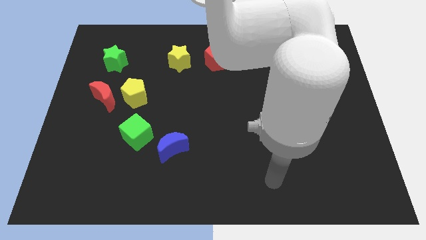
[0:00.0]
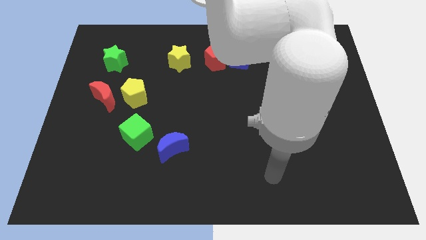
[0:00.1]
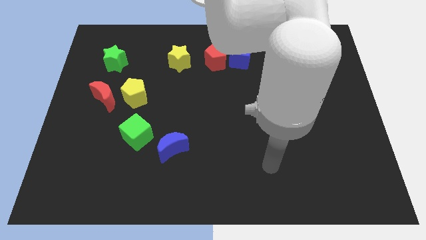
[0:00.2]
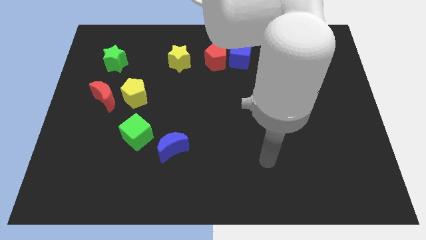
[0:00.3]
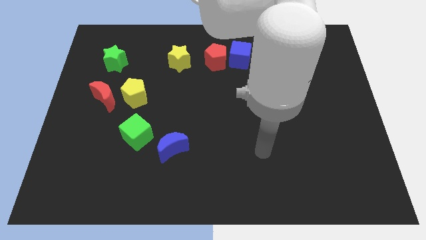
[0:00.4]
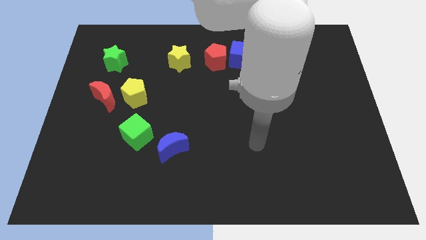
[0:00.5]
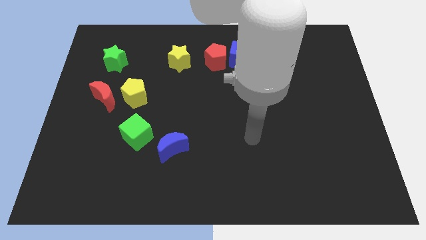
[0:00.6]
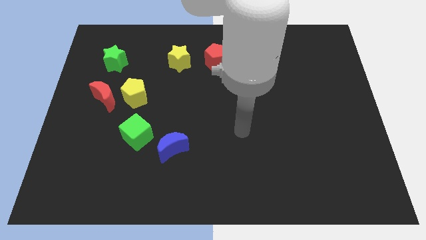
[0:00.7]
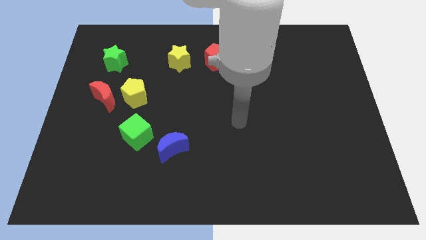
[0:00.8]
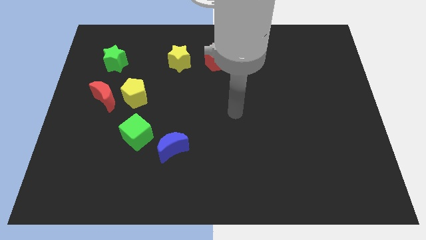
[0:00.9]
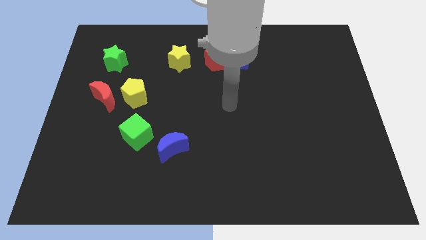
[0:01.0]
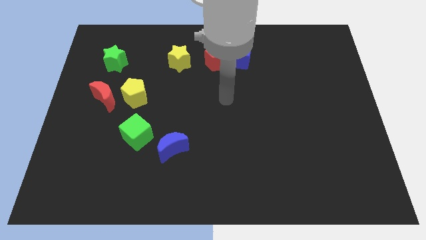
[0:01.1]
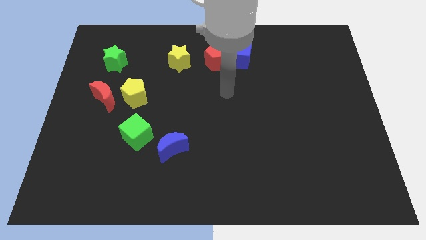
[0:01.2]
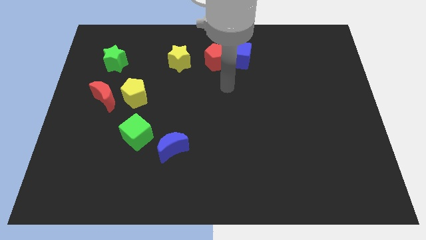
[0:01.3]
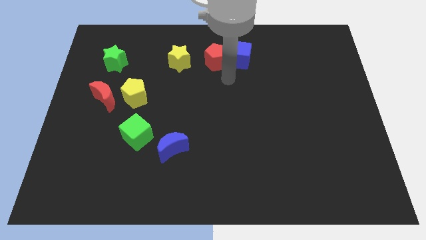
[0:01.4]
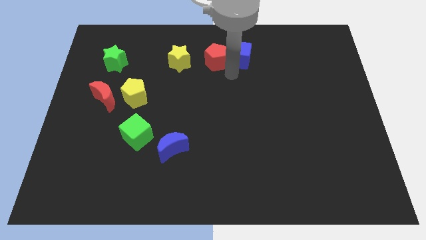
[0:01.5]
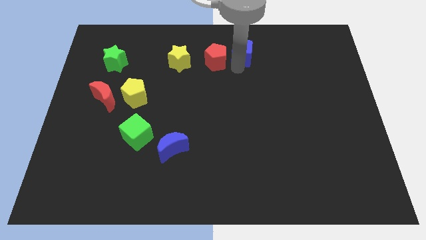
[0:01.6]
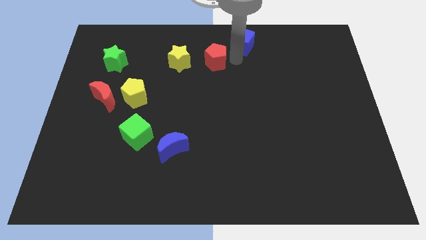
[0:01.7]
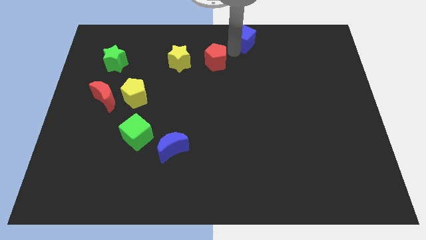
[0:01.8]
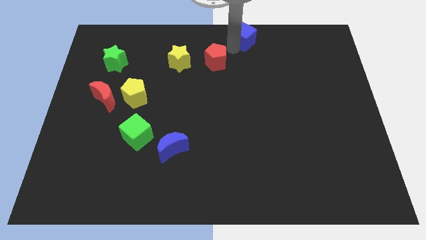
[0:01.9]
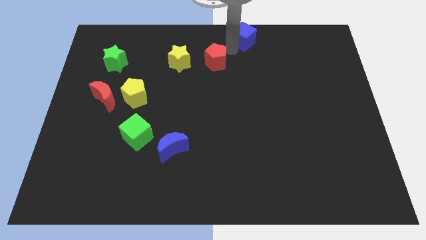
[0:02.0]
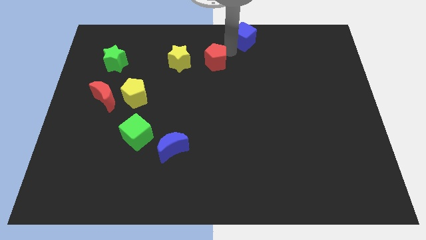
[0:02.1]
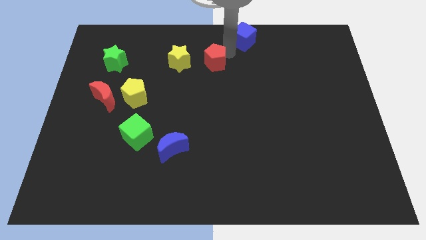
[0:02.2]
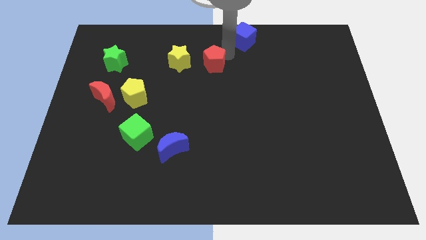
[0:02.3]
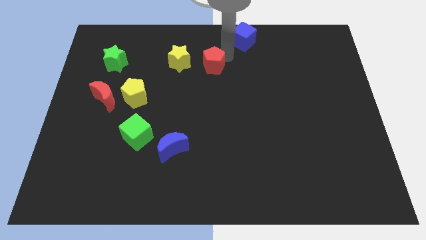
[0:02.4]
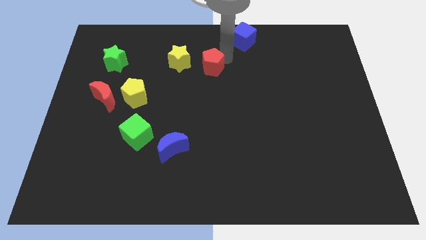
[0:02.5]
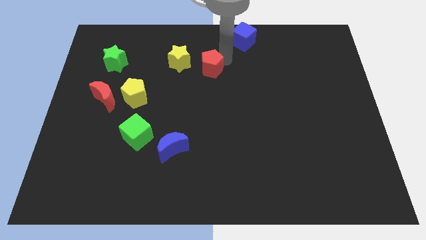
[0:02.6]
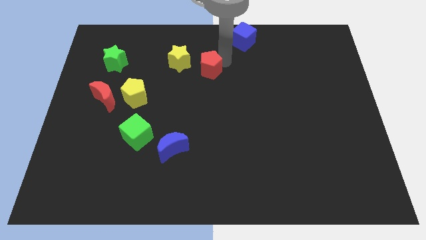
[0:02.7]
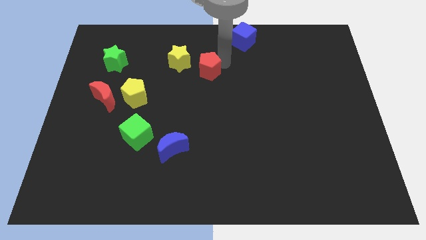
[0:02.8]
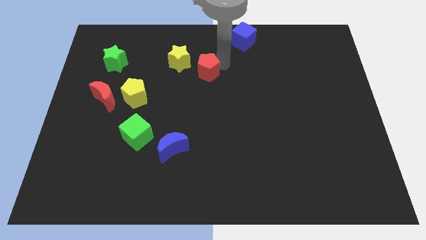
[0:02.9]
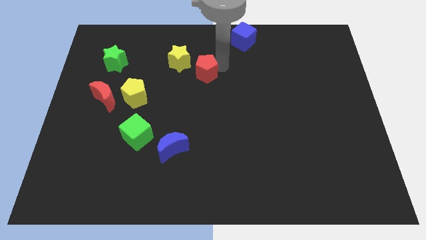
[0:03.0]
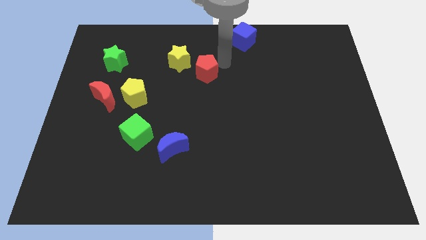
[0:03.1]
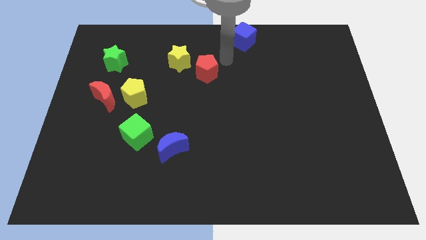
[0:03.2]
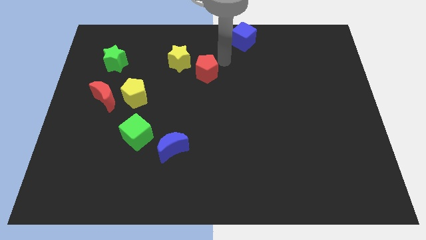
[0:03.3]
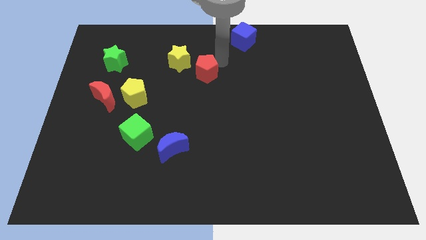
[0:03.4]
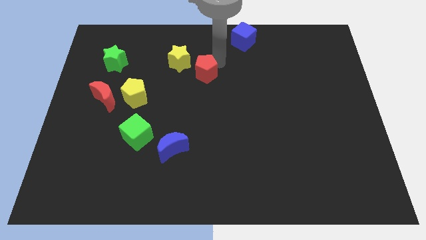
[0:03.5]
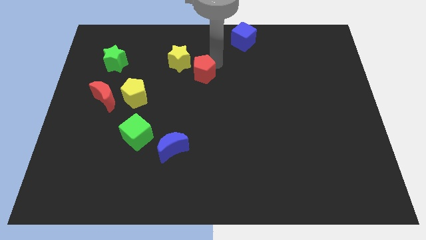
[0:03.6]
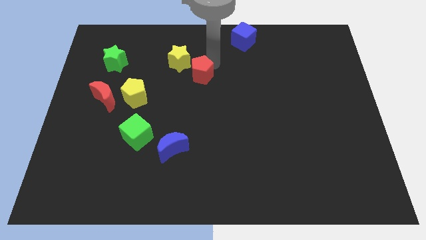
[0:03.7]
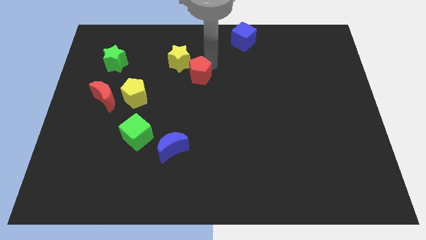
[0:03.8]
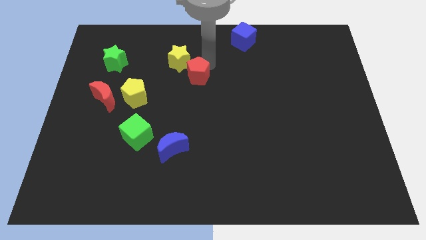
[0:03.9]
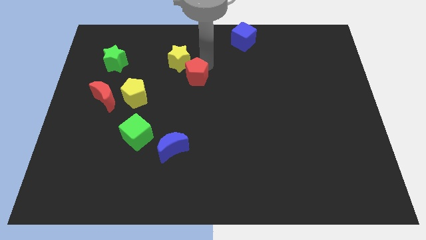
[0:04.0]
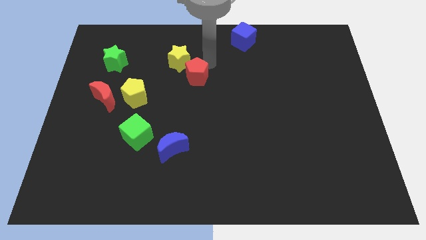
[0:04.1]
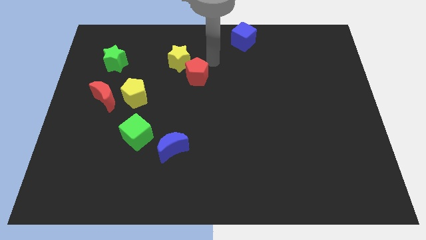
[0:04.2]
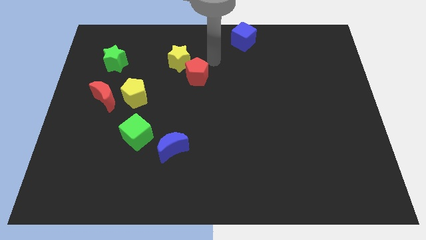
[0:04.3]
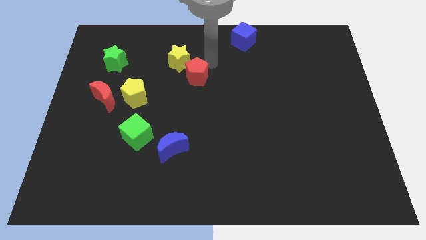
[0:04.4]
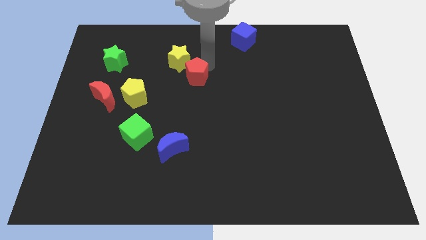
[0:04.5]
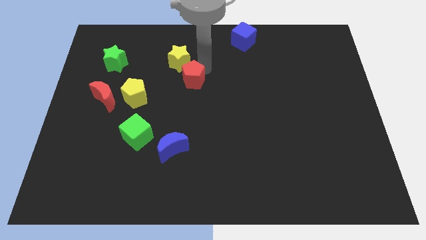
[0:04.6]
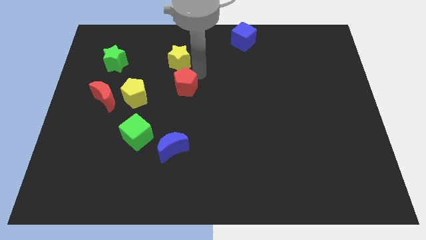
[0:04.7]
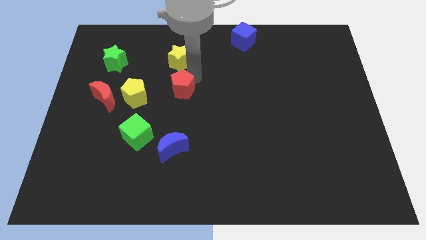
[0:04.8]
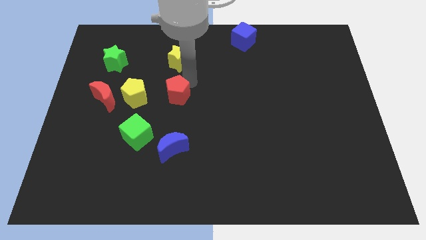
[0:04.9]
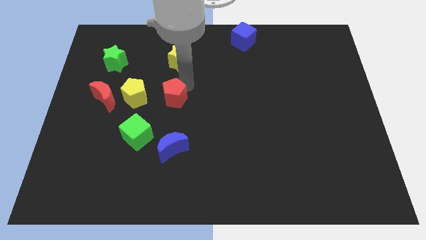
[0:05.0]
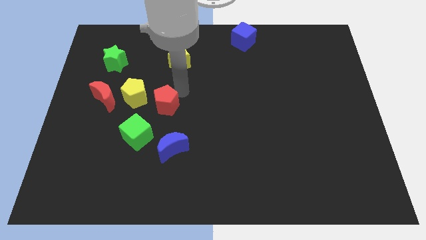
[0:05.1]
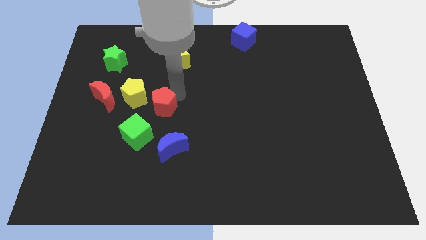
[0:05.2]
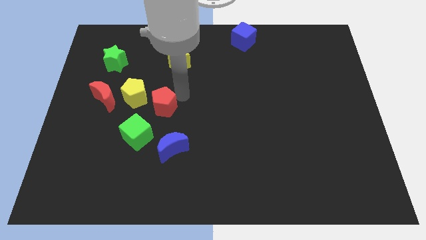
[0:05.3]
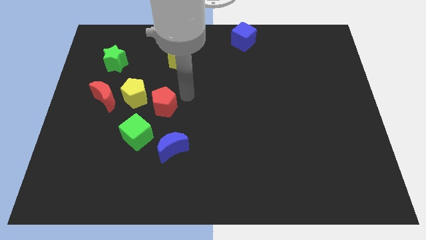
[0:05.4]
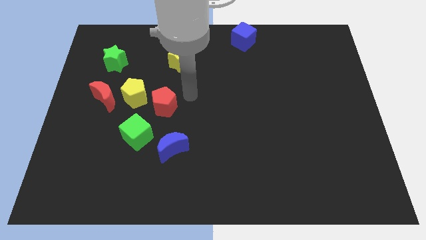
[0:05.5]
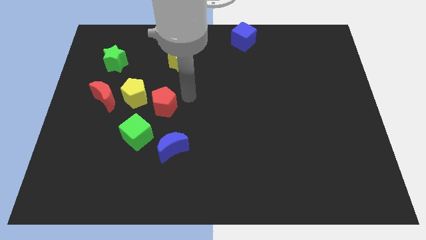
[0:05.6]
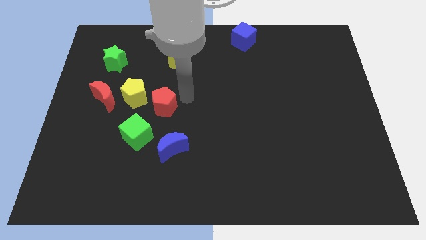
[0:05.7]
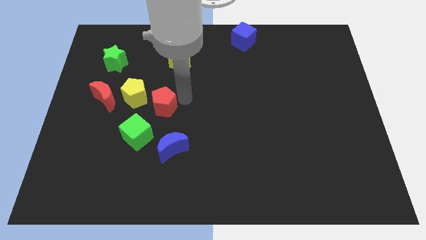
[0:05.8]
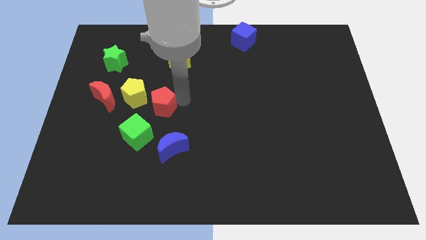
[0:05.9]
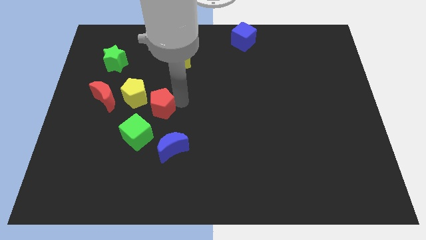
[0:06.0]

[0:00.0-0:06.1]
slide the red pentagon diagonally down and left

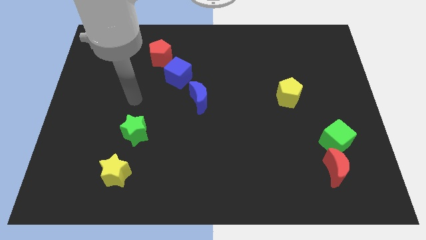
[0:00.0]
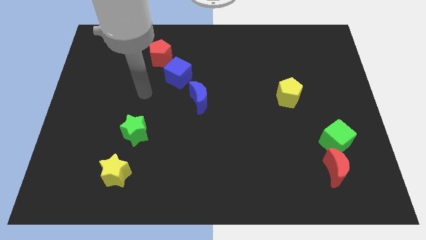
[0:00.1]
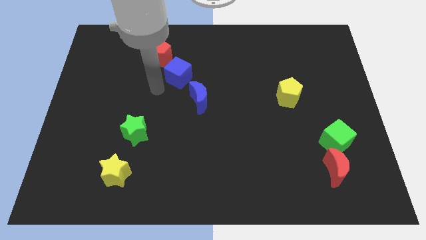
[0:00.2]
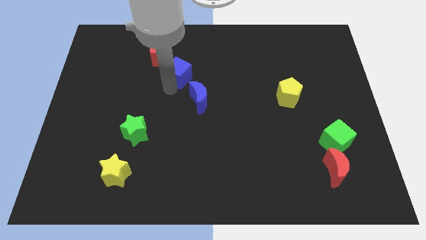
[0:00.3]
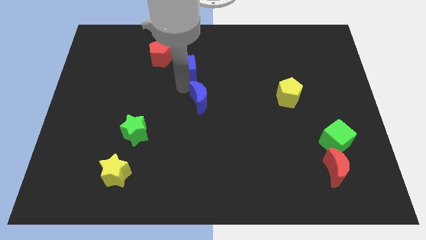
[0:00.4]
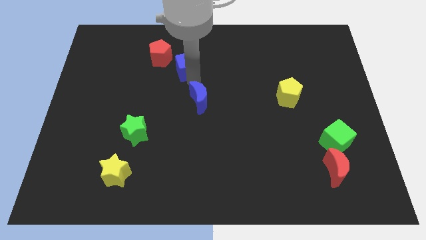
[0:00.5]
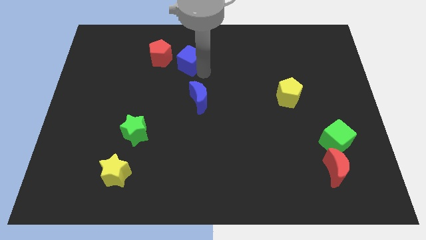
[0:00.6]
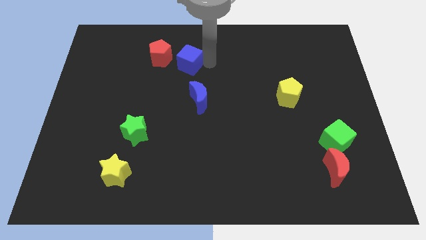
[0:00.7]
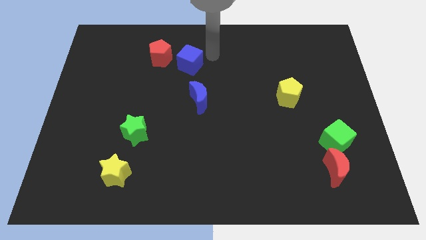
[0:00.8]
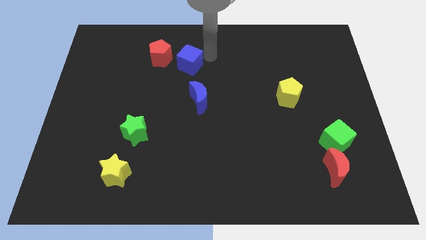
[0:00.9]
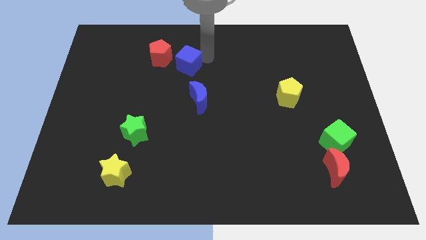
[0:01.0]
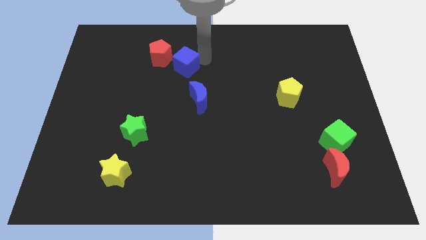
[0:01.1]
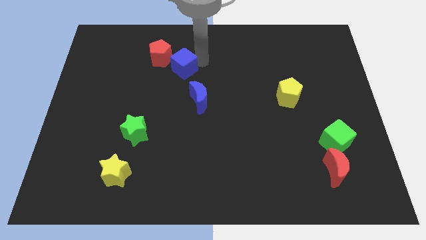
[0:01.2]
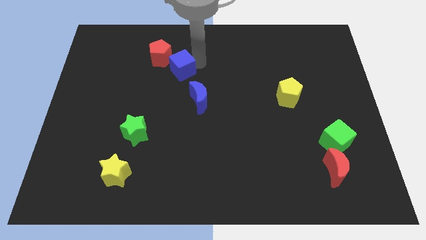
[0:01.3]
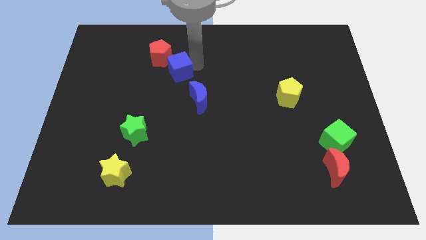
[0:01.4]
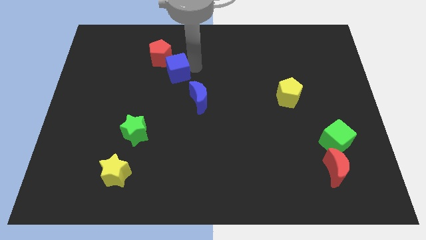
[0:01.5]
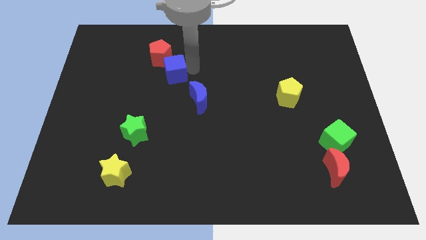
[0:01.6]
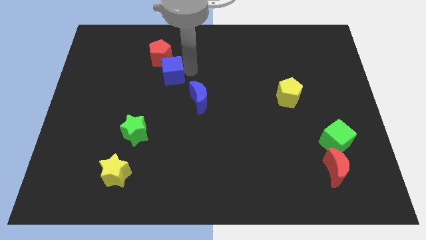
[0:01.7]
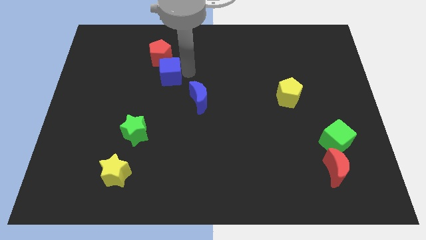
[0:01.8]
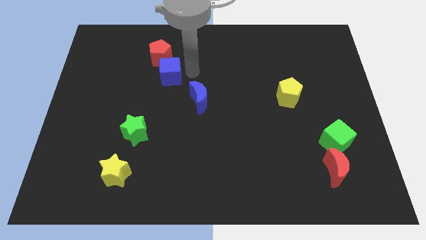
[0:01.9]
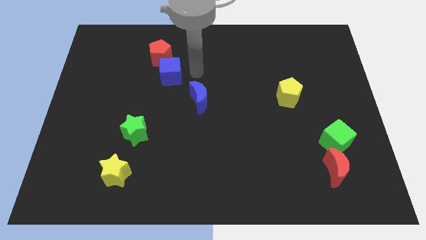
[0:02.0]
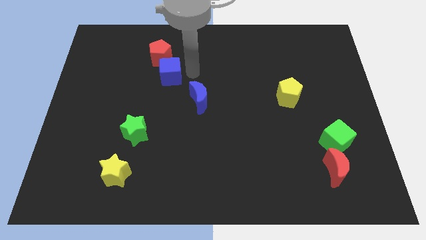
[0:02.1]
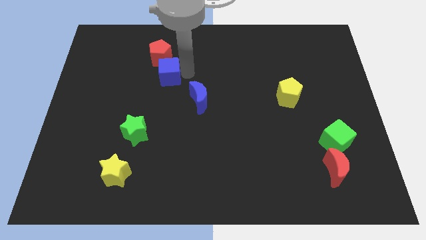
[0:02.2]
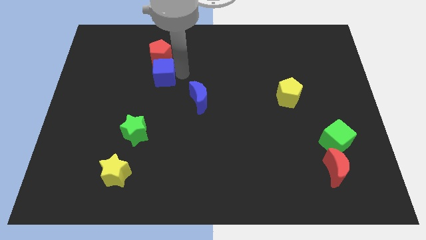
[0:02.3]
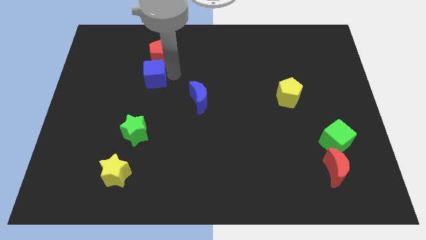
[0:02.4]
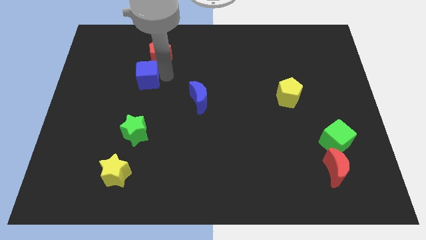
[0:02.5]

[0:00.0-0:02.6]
push the blue cube a little to the left
